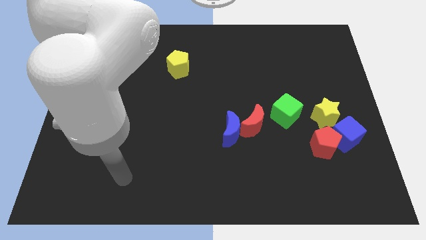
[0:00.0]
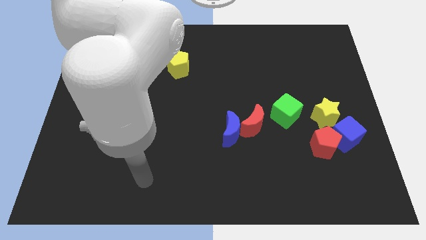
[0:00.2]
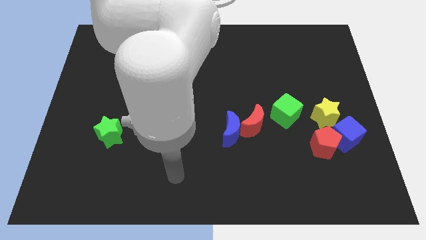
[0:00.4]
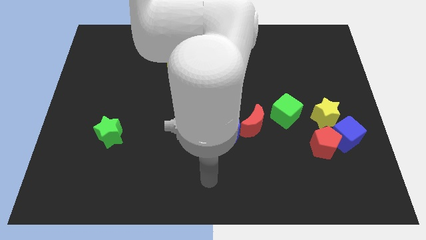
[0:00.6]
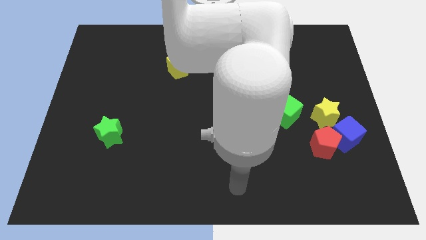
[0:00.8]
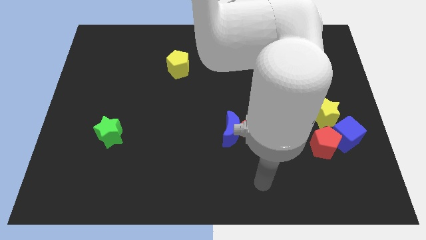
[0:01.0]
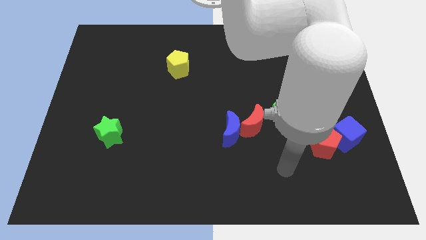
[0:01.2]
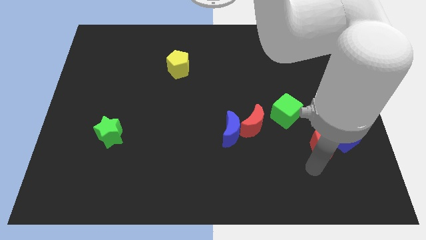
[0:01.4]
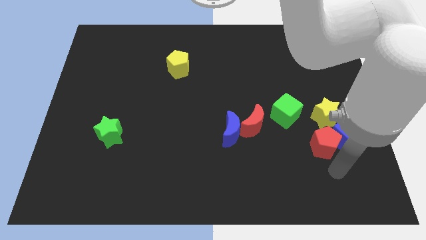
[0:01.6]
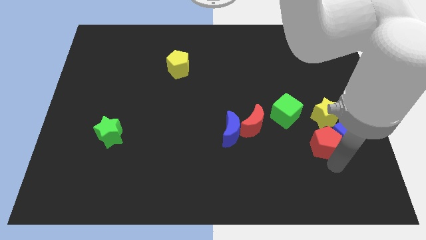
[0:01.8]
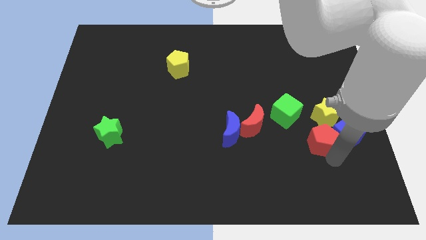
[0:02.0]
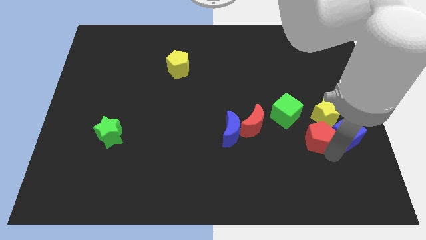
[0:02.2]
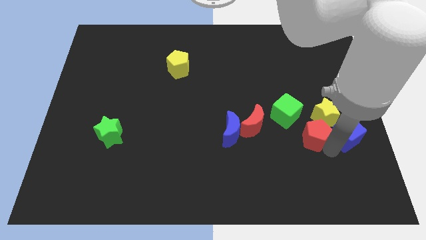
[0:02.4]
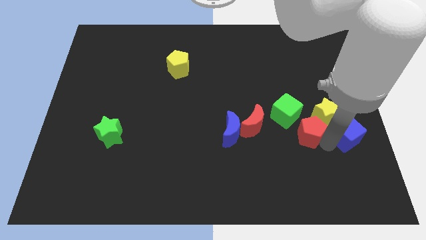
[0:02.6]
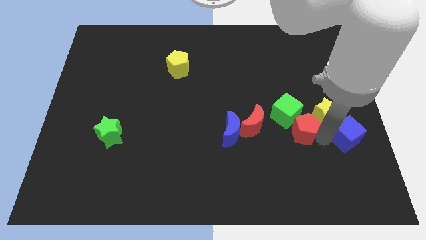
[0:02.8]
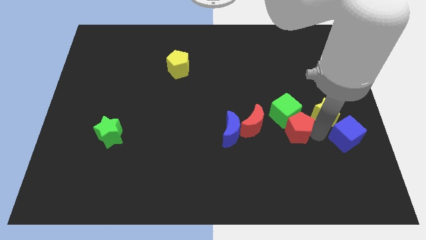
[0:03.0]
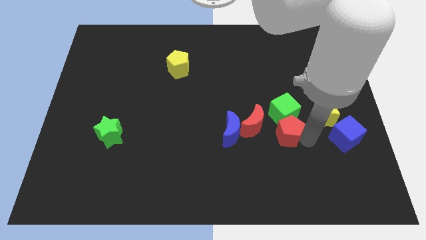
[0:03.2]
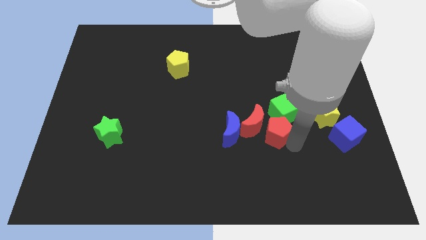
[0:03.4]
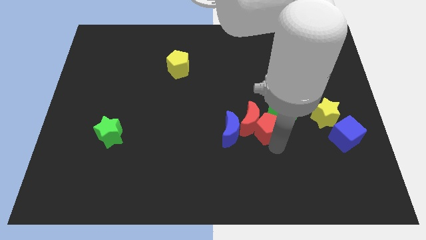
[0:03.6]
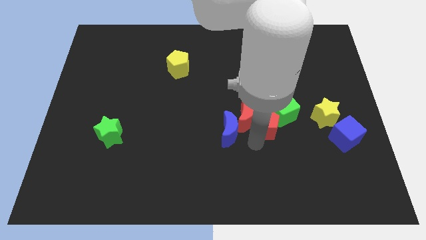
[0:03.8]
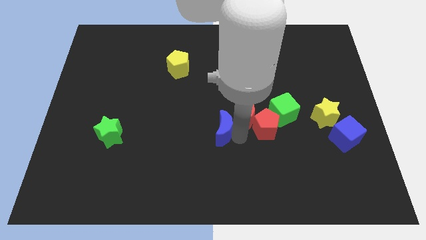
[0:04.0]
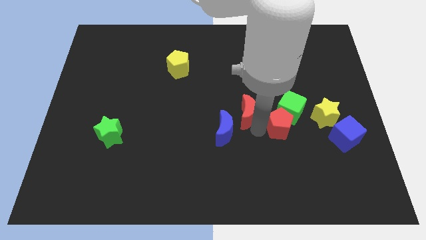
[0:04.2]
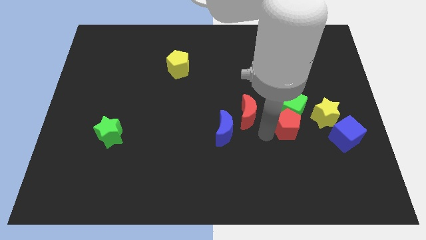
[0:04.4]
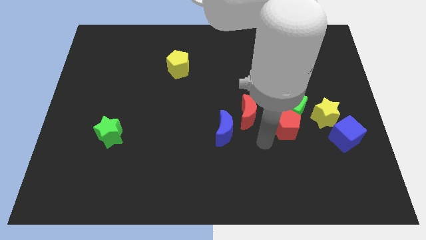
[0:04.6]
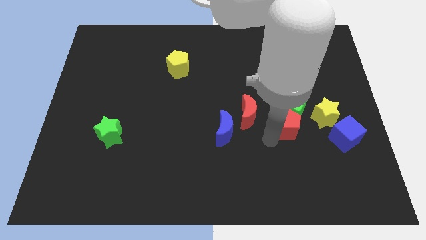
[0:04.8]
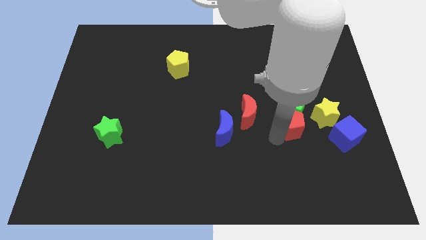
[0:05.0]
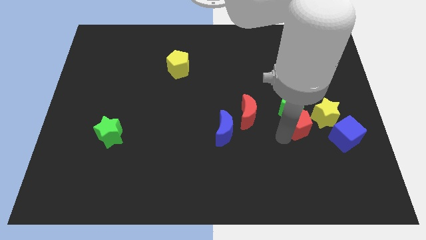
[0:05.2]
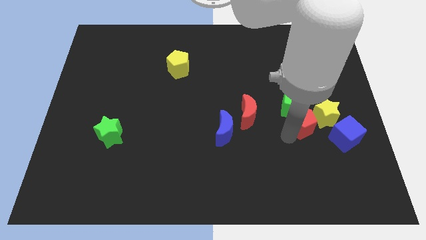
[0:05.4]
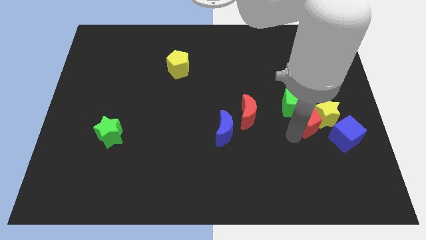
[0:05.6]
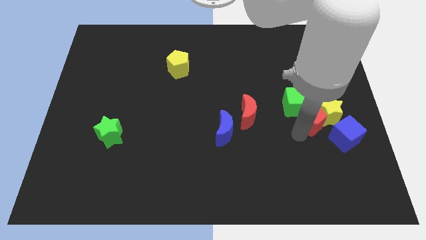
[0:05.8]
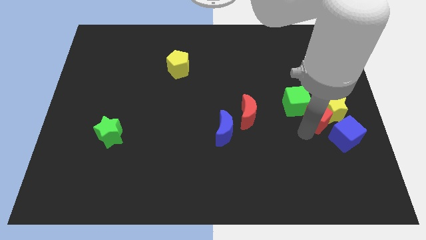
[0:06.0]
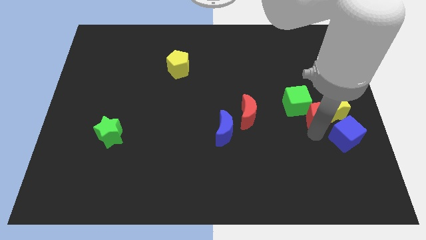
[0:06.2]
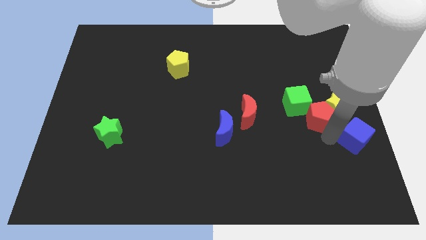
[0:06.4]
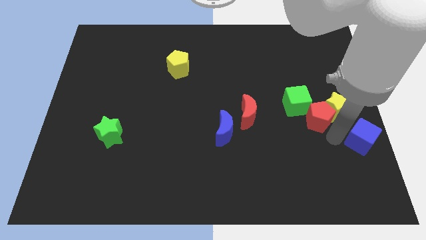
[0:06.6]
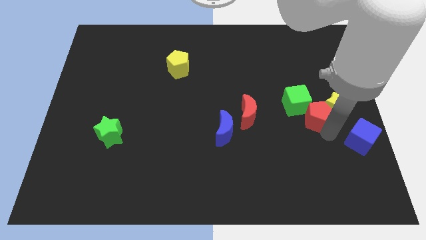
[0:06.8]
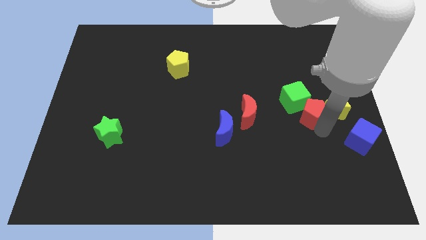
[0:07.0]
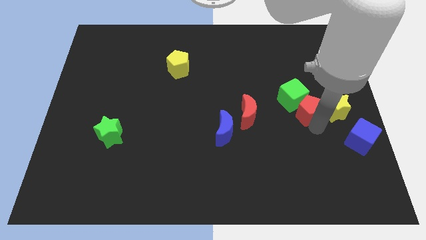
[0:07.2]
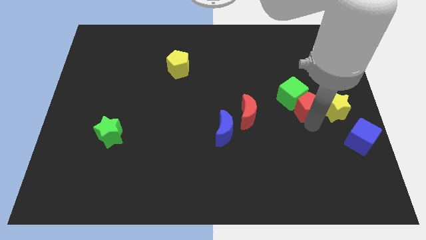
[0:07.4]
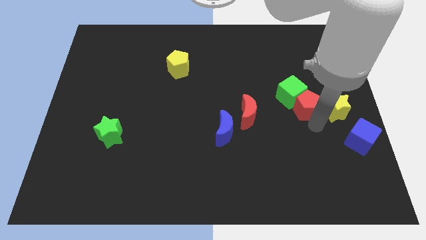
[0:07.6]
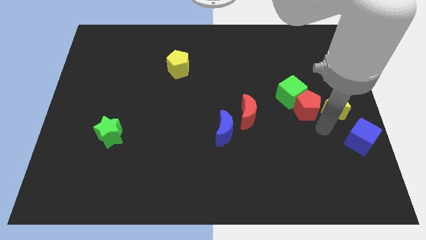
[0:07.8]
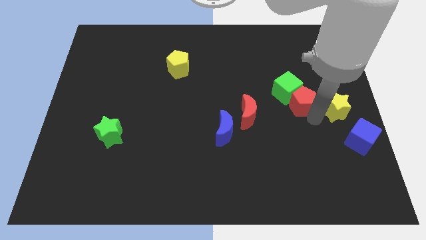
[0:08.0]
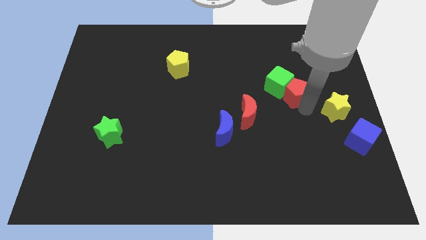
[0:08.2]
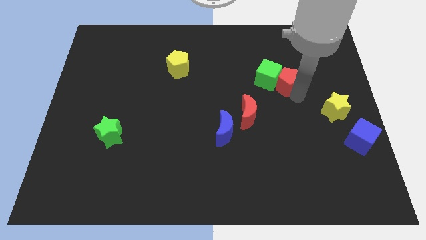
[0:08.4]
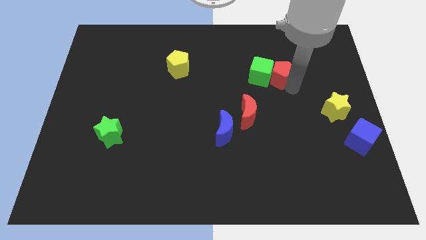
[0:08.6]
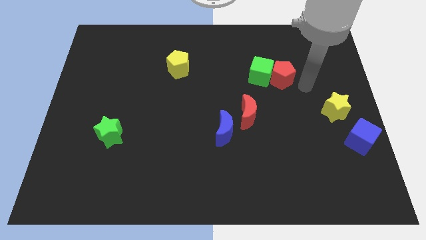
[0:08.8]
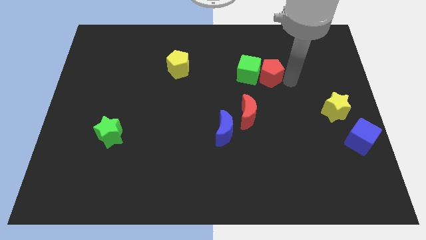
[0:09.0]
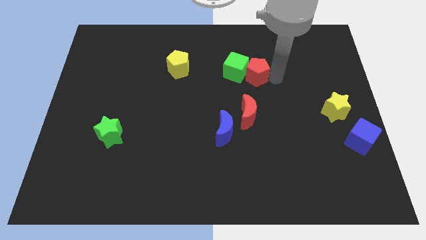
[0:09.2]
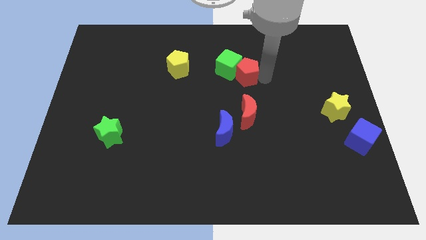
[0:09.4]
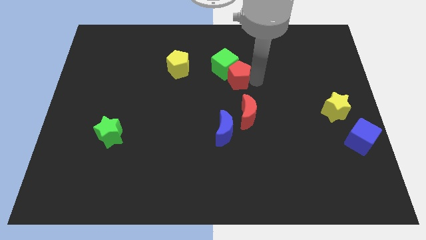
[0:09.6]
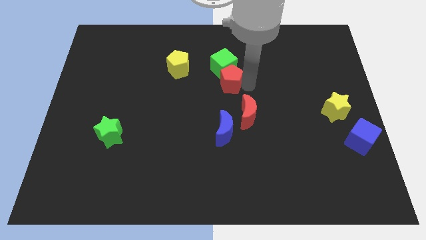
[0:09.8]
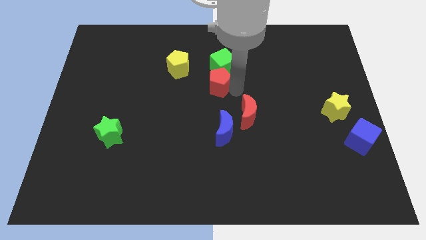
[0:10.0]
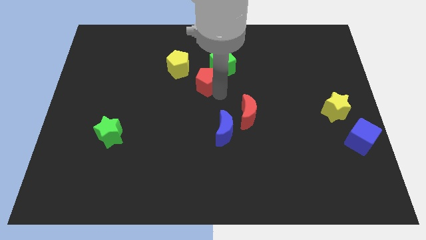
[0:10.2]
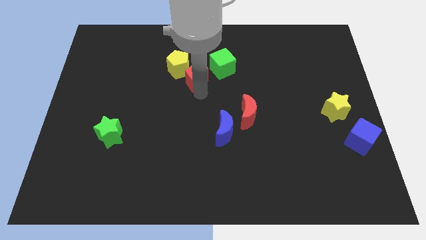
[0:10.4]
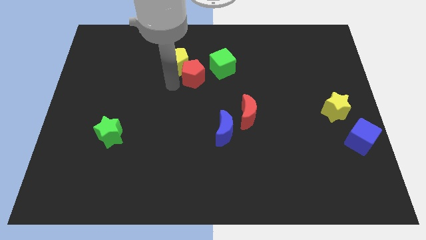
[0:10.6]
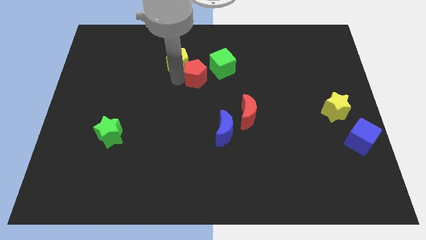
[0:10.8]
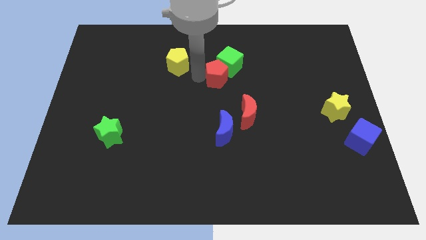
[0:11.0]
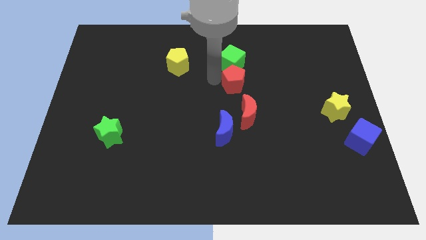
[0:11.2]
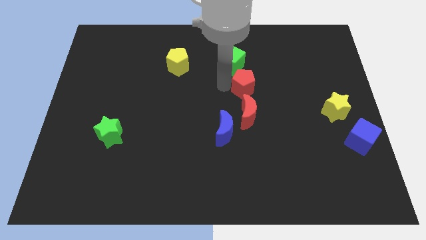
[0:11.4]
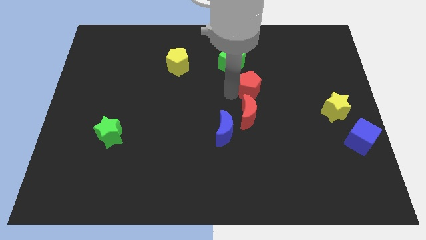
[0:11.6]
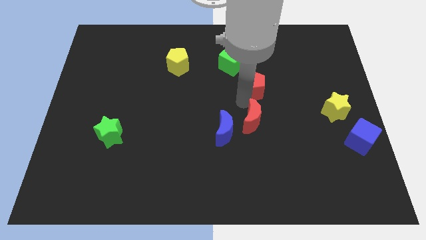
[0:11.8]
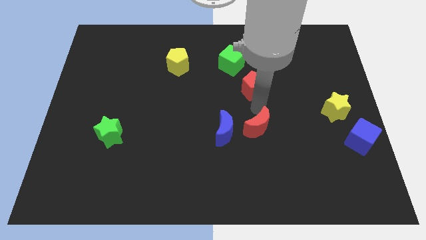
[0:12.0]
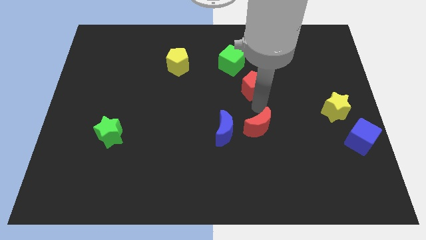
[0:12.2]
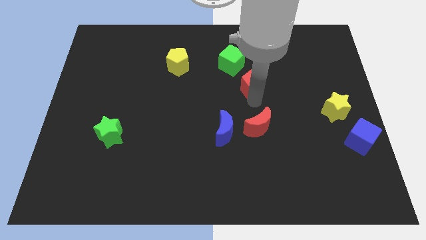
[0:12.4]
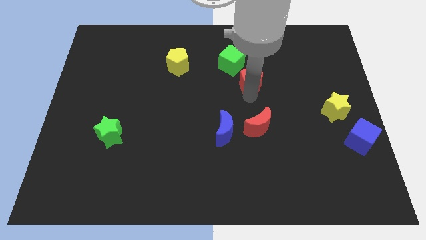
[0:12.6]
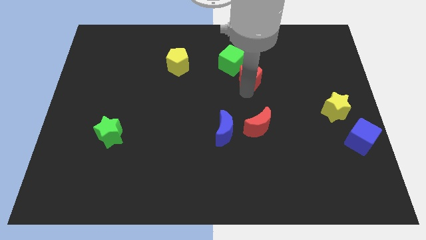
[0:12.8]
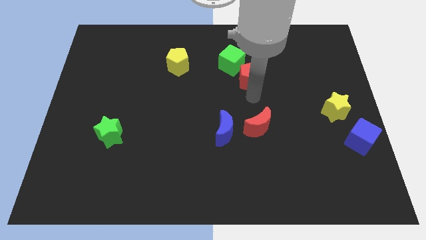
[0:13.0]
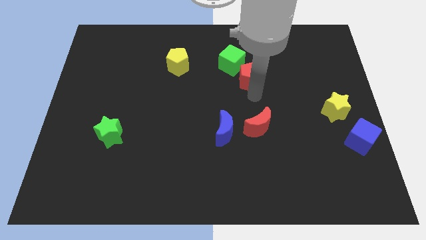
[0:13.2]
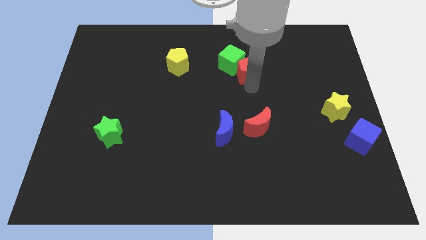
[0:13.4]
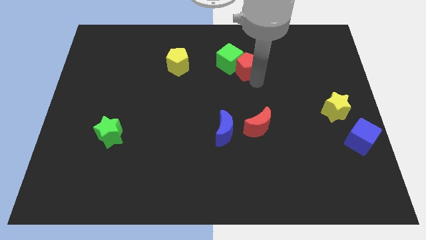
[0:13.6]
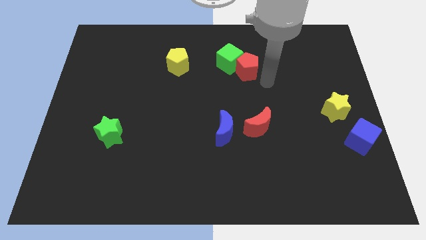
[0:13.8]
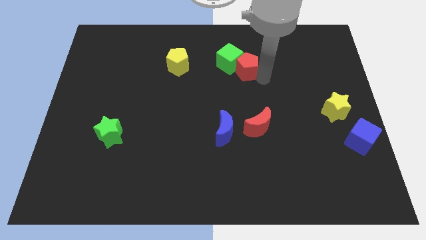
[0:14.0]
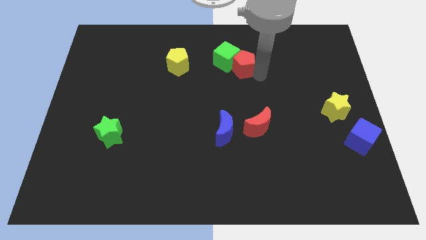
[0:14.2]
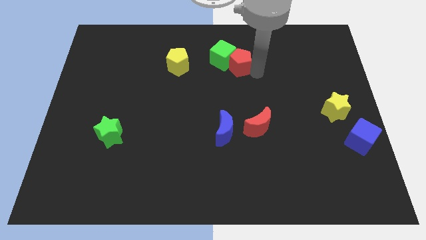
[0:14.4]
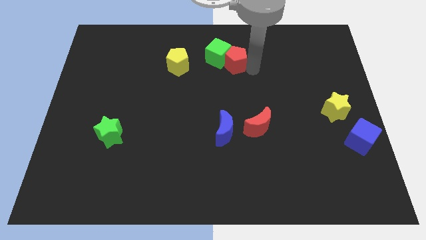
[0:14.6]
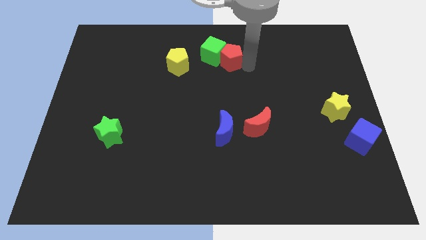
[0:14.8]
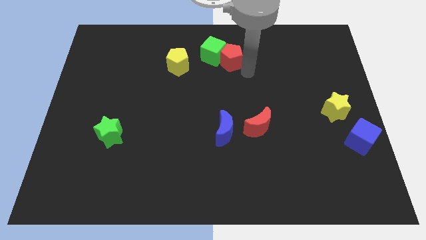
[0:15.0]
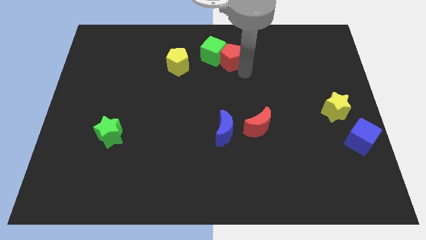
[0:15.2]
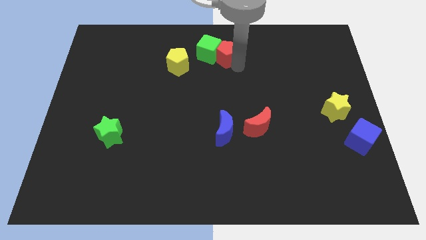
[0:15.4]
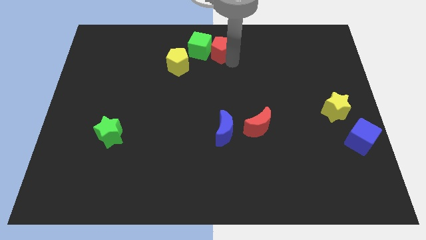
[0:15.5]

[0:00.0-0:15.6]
move the red pentagon to the top side
